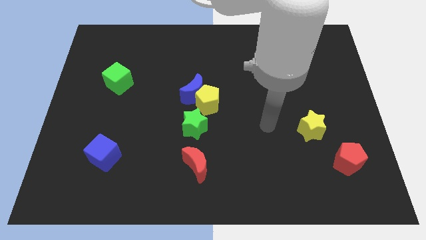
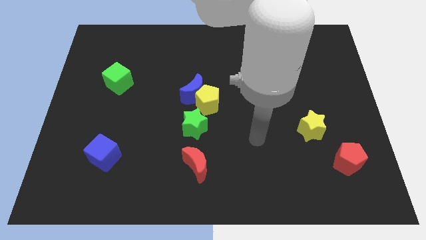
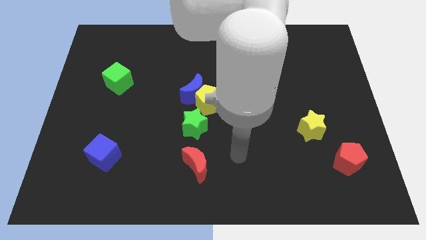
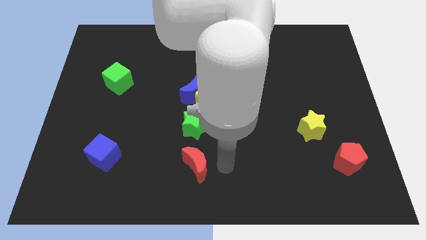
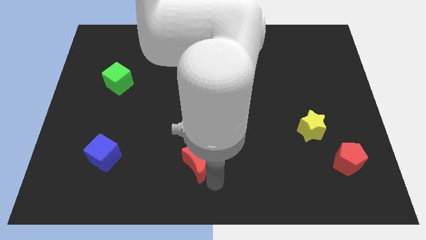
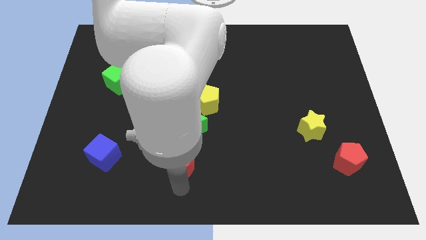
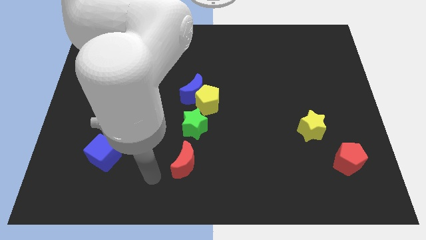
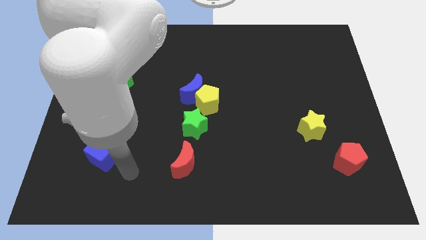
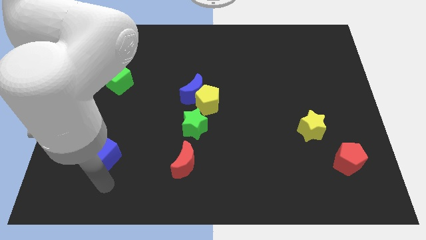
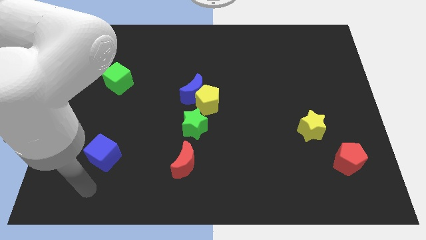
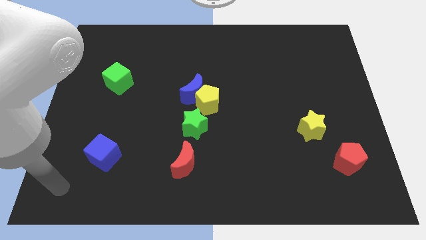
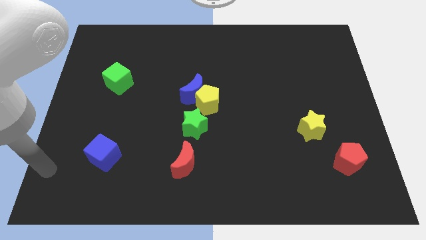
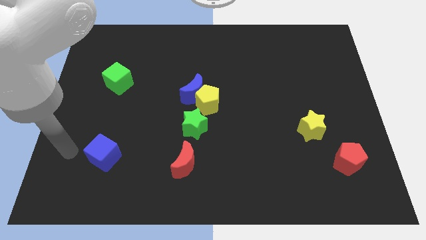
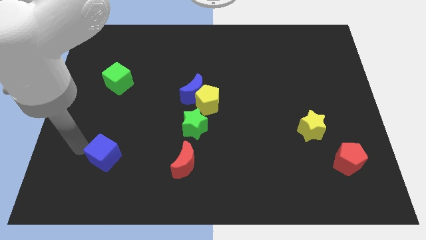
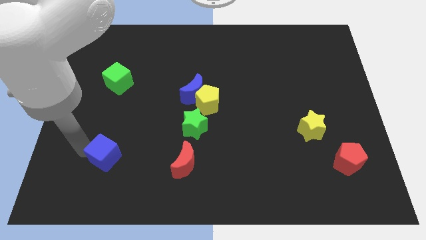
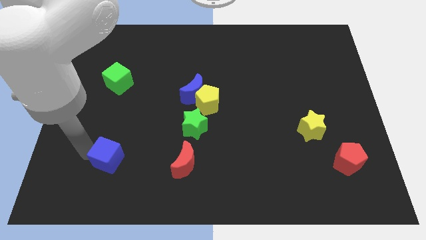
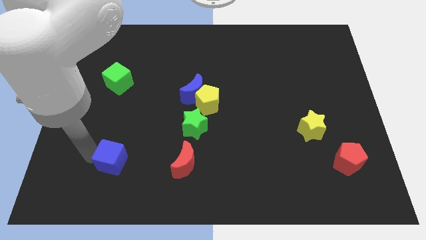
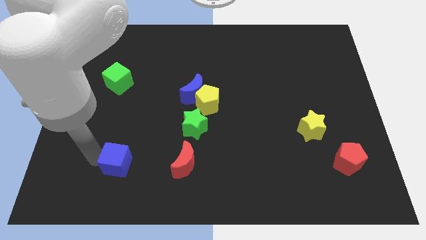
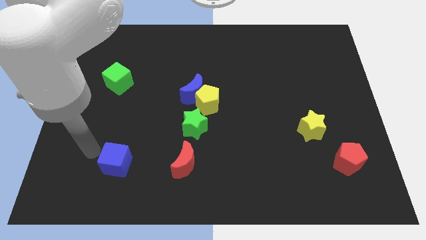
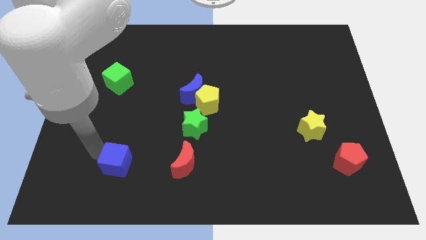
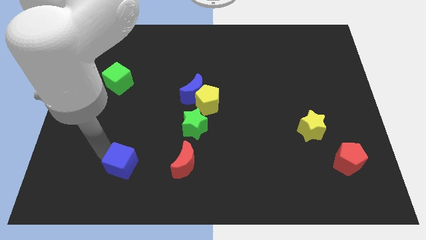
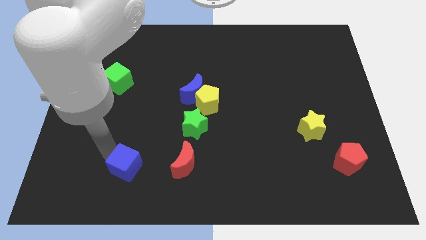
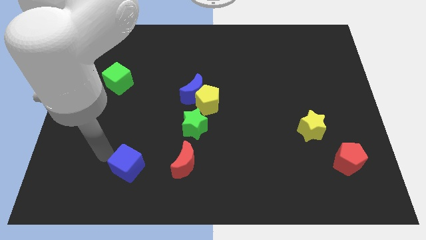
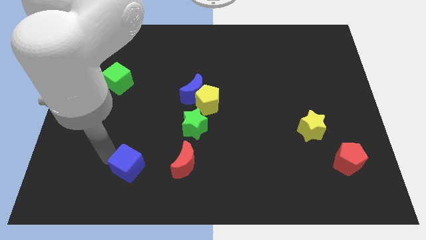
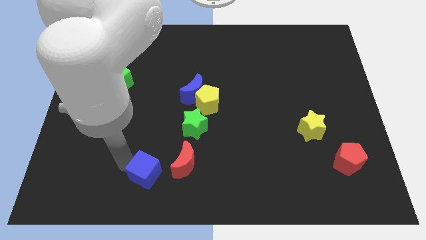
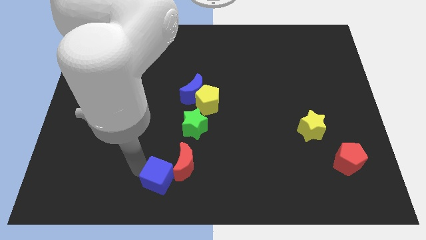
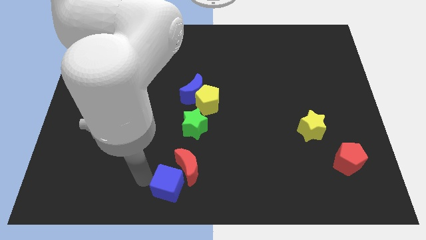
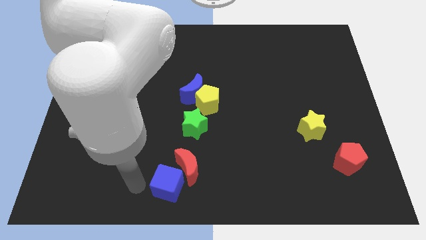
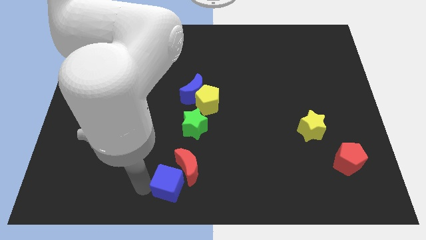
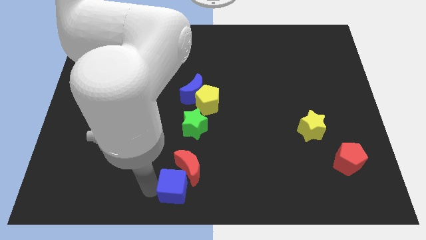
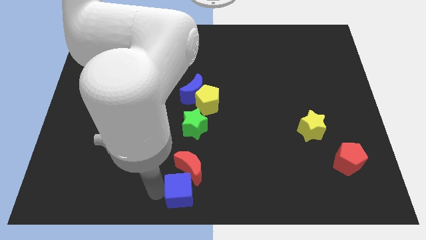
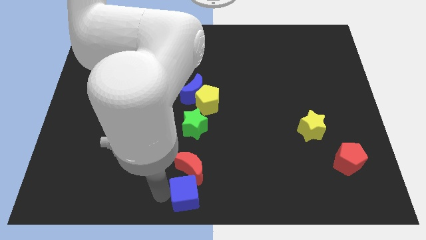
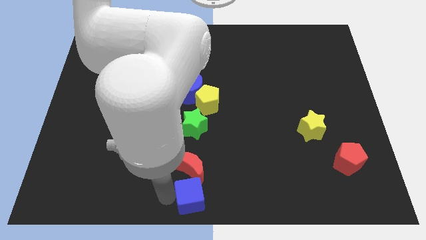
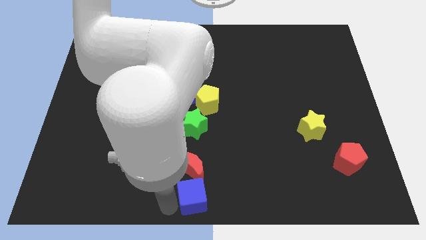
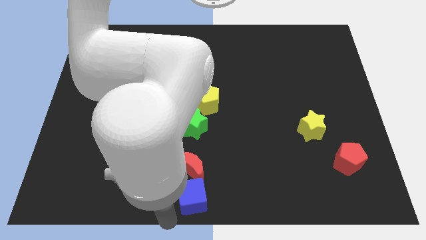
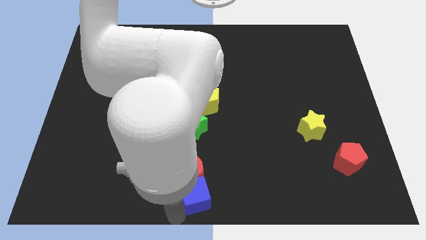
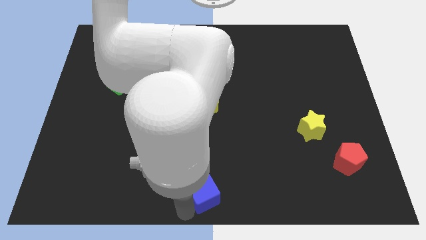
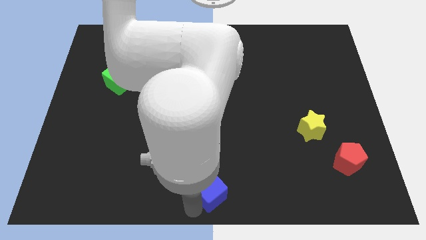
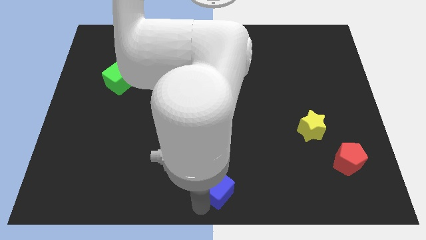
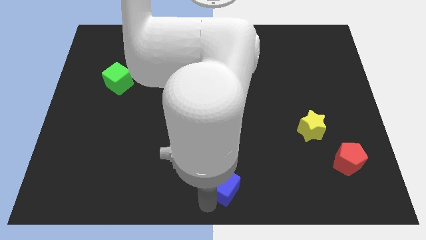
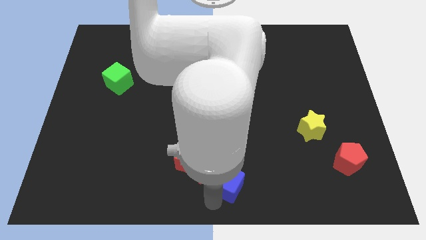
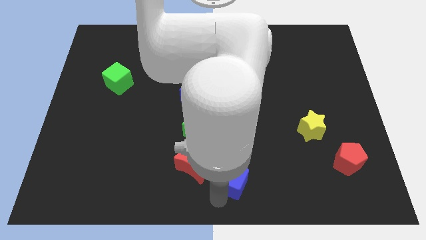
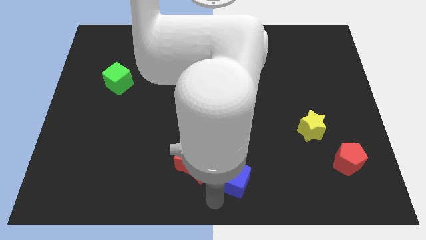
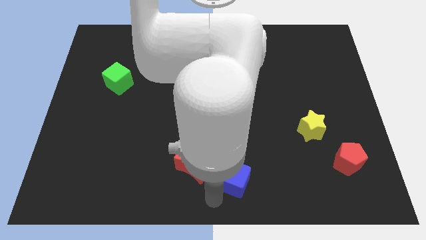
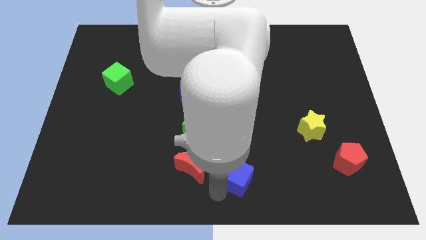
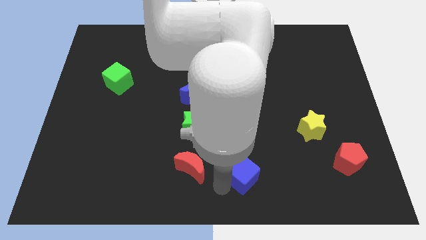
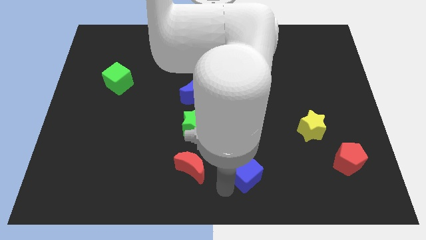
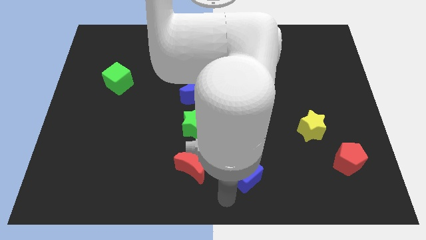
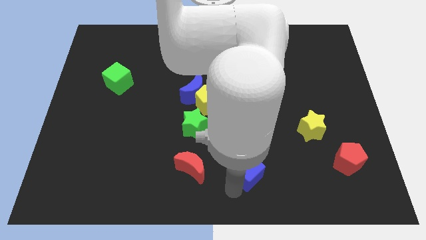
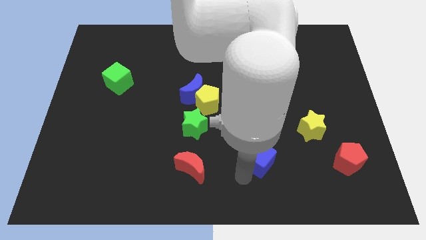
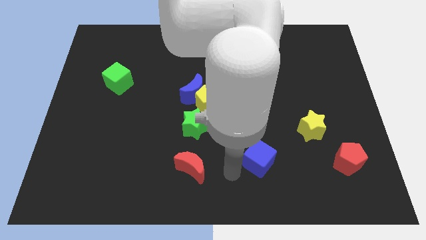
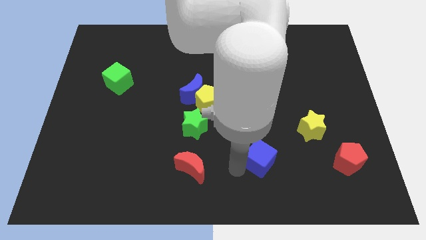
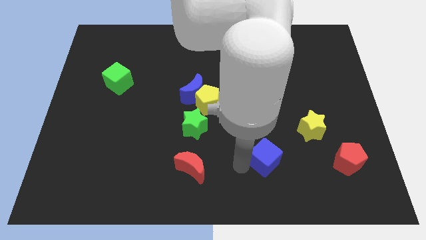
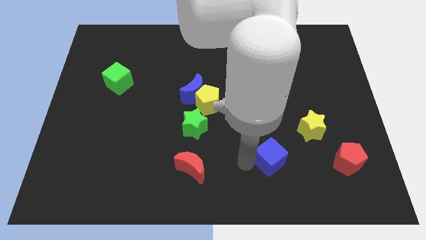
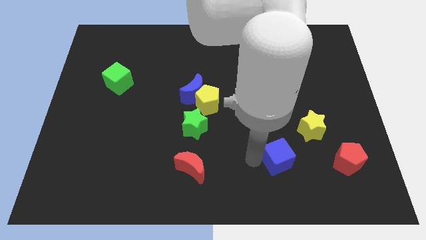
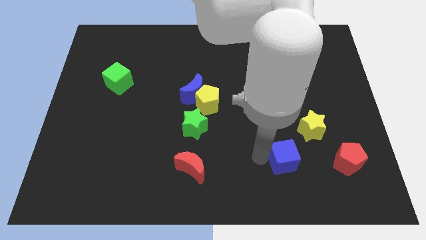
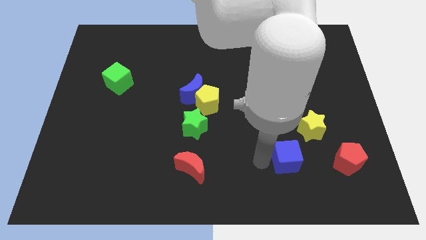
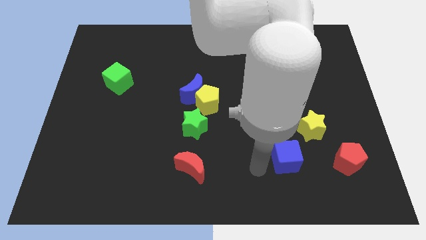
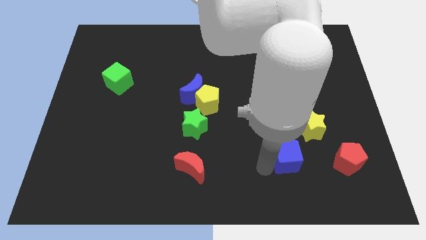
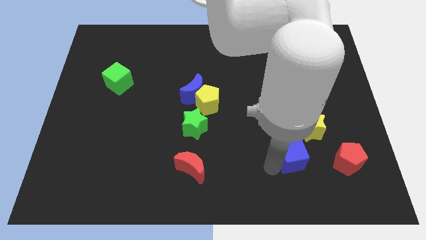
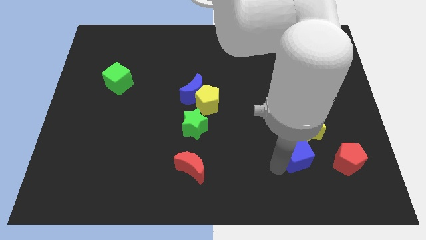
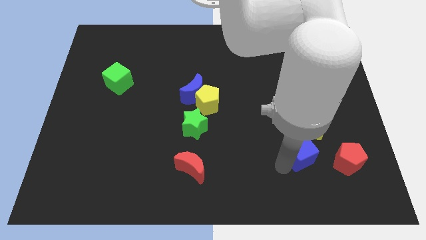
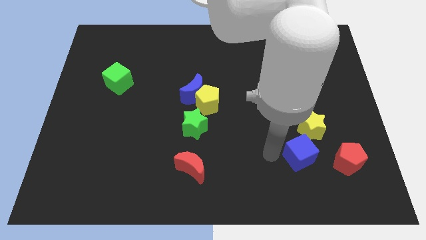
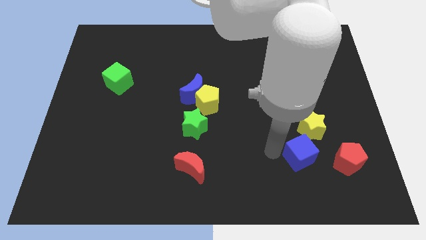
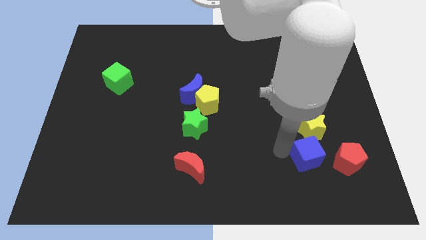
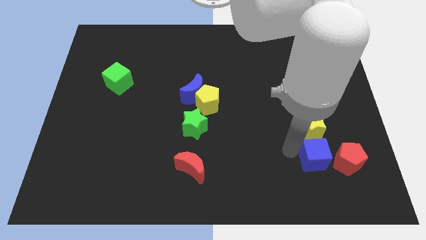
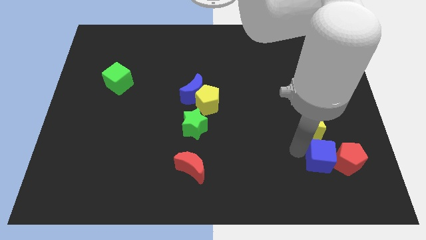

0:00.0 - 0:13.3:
put the blue cube towards the red pentagon
